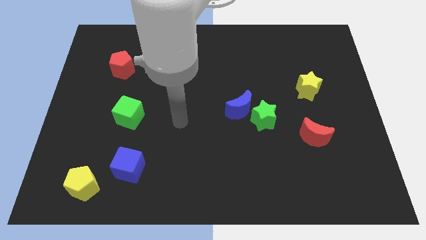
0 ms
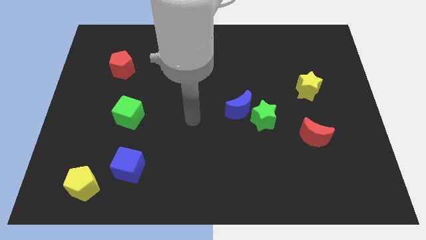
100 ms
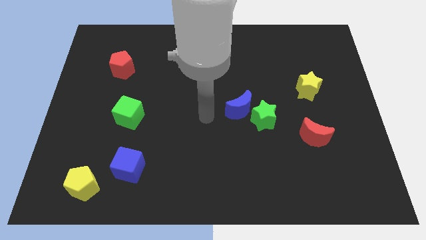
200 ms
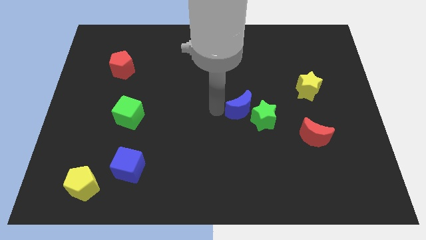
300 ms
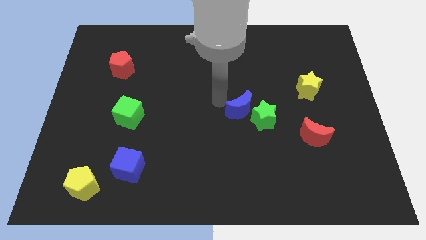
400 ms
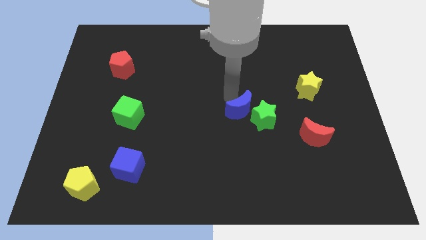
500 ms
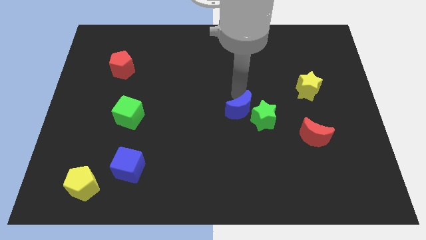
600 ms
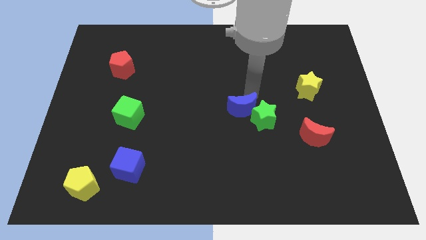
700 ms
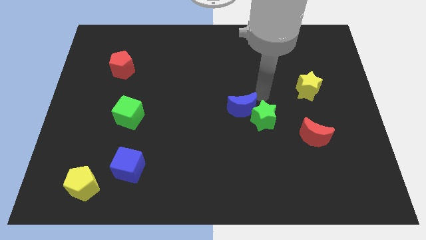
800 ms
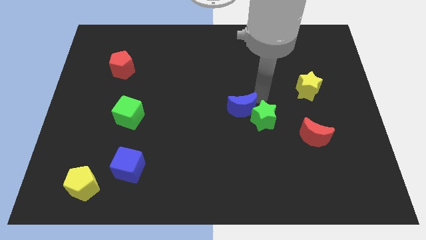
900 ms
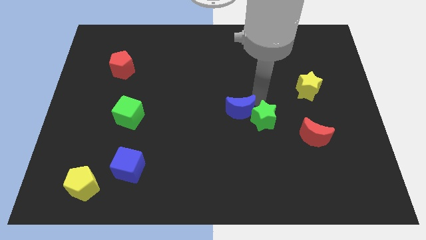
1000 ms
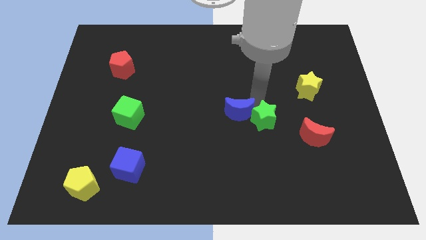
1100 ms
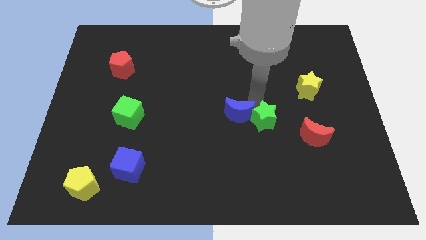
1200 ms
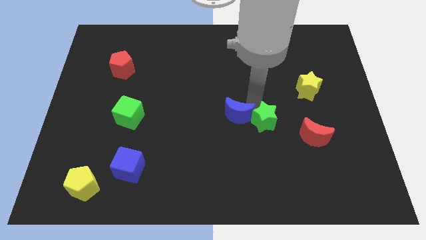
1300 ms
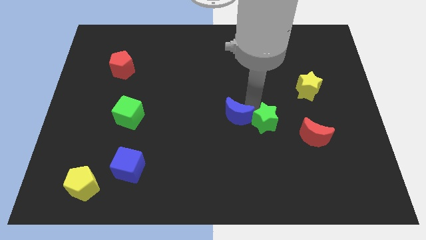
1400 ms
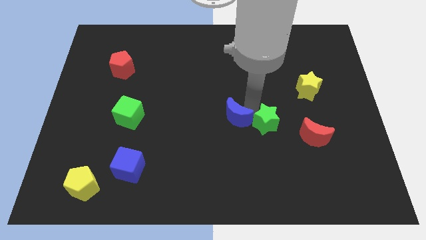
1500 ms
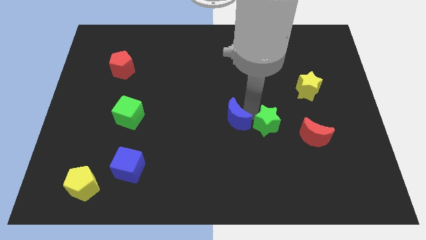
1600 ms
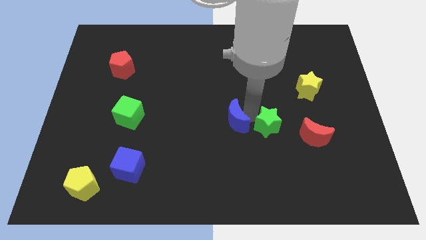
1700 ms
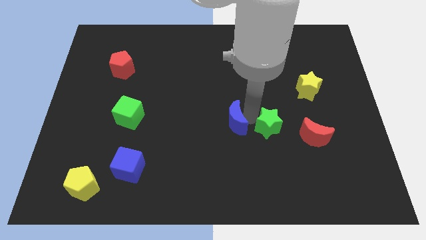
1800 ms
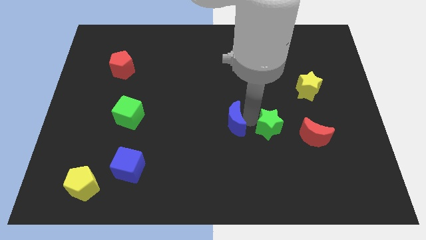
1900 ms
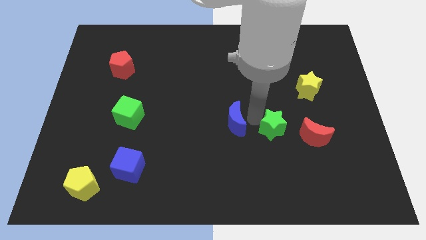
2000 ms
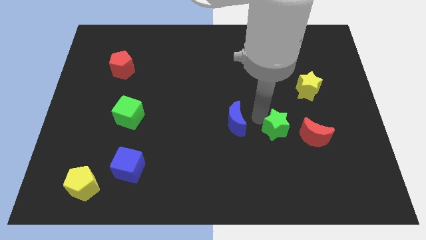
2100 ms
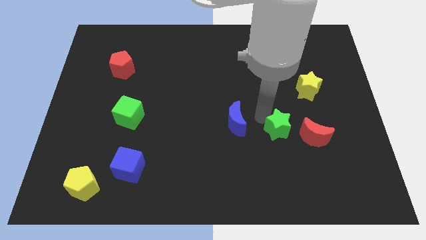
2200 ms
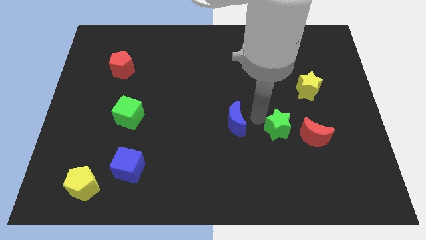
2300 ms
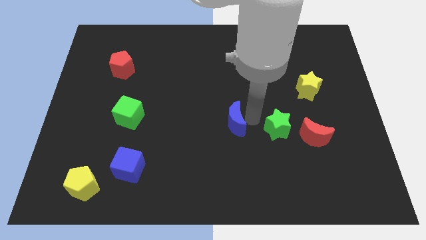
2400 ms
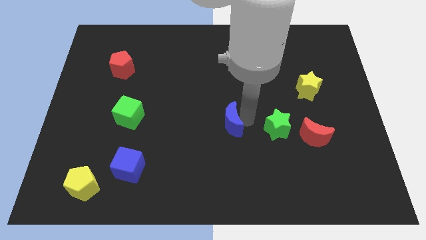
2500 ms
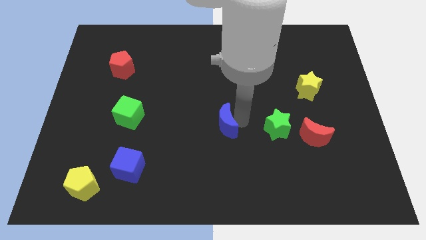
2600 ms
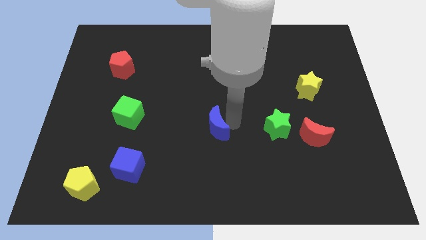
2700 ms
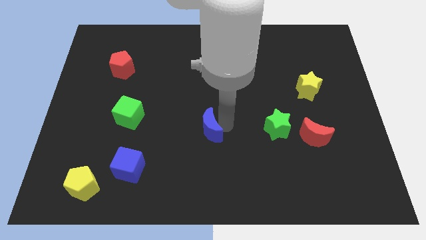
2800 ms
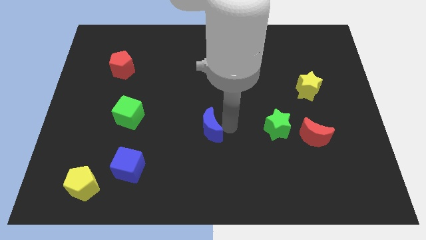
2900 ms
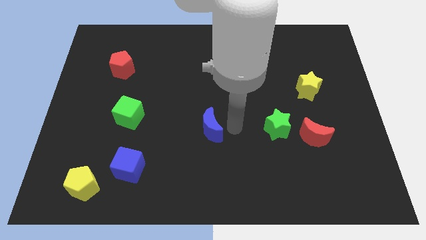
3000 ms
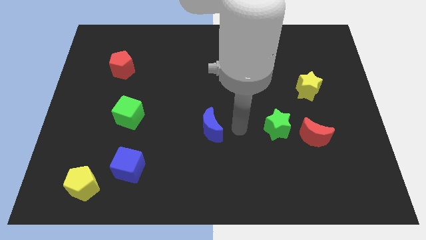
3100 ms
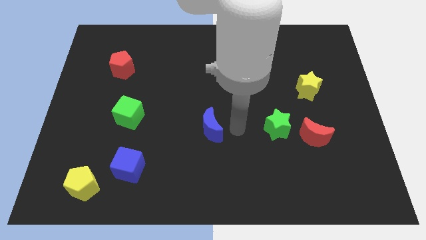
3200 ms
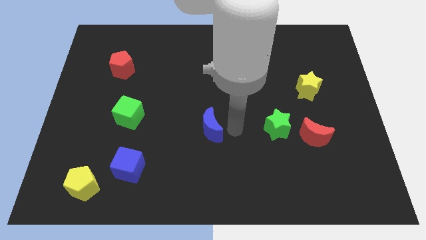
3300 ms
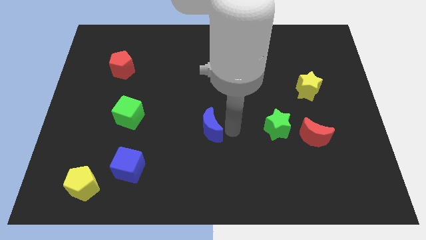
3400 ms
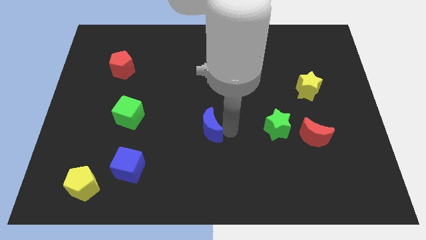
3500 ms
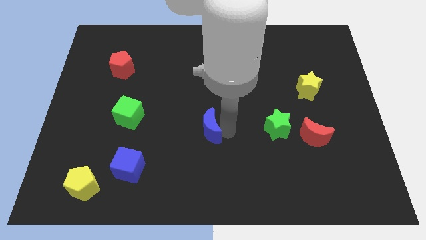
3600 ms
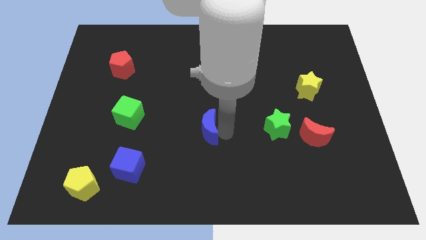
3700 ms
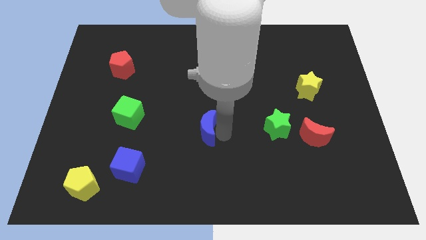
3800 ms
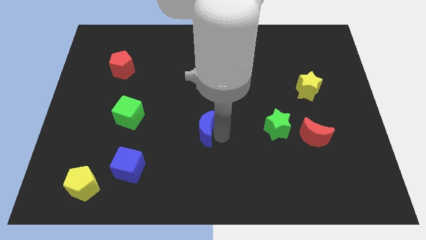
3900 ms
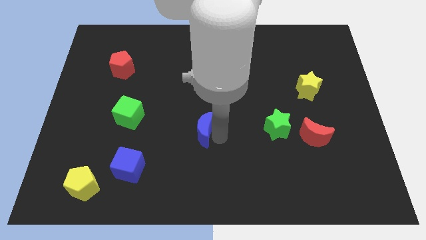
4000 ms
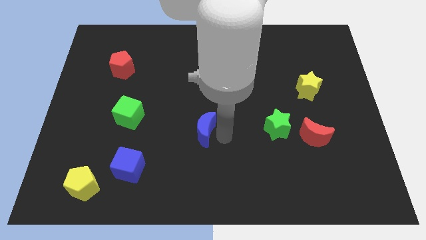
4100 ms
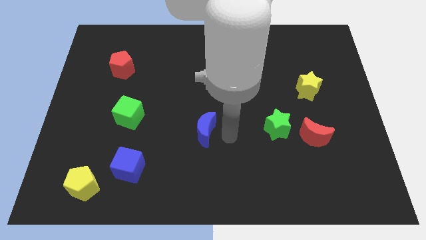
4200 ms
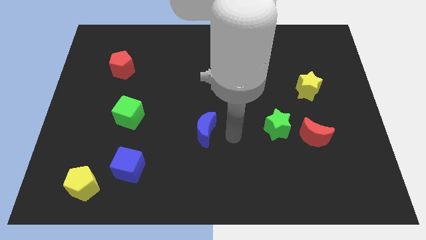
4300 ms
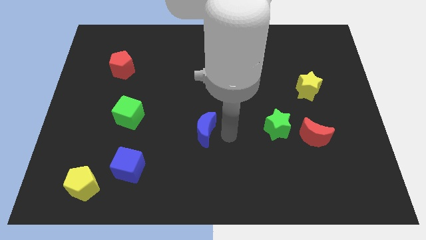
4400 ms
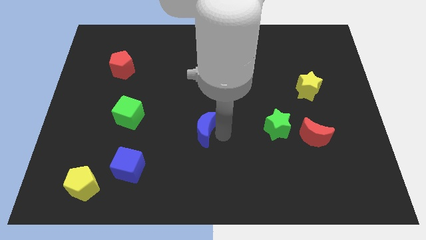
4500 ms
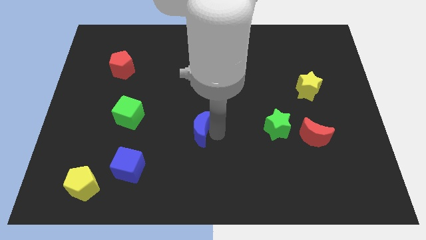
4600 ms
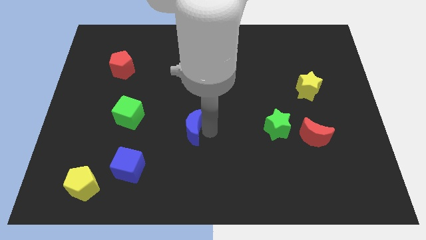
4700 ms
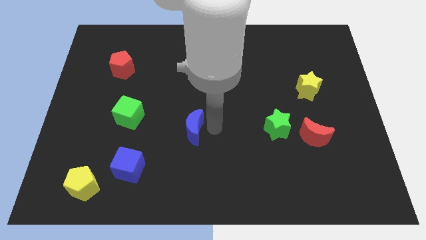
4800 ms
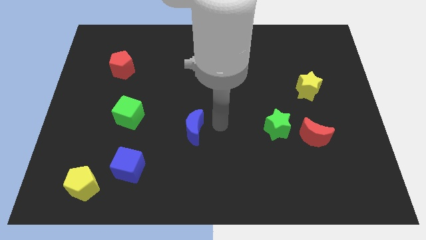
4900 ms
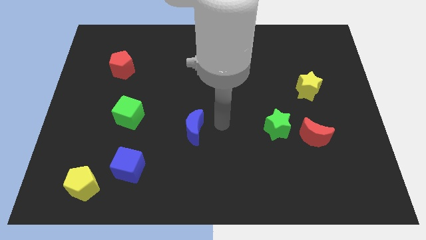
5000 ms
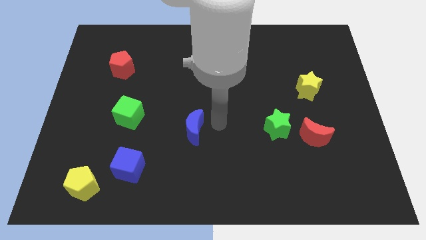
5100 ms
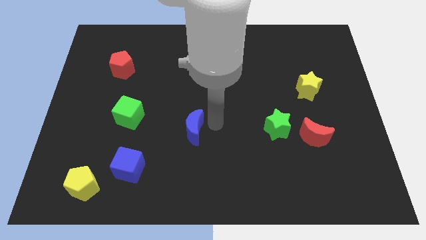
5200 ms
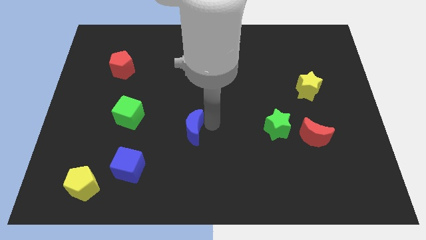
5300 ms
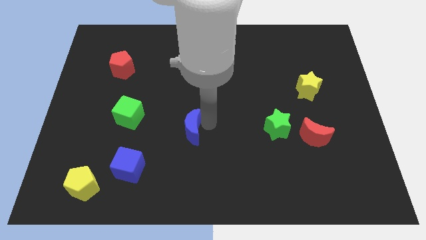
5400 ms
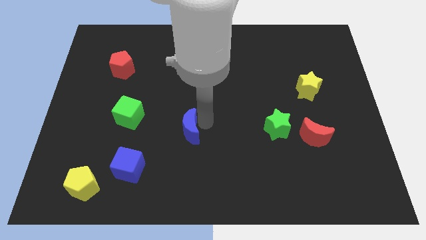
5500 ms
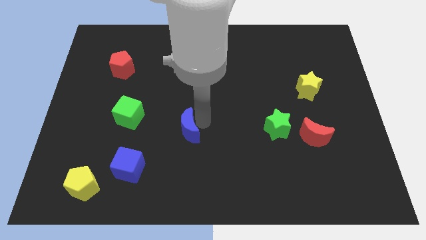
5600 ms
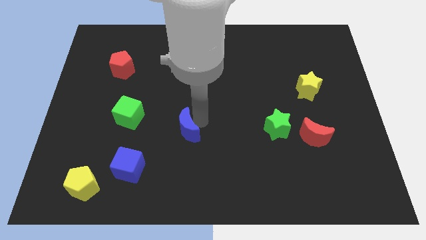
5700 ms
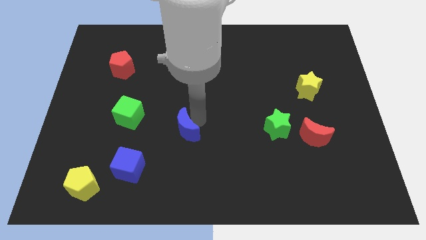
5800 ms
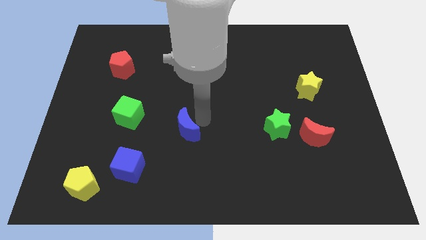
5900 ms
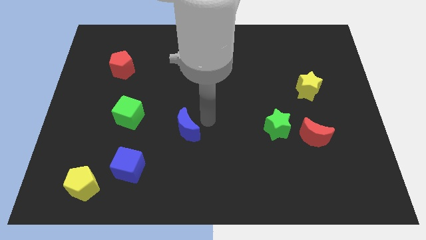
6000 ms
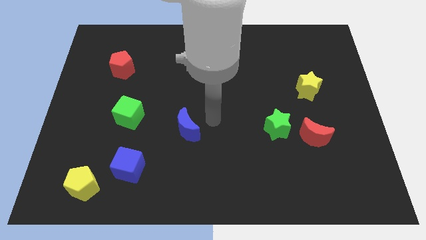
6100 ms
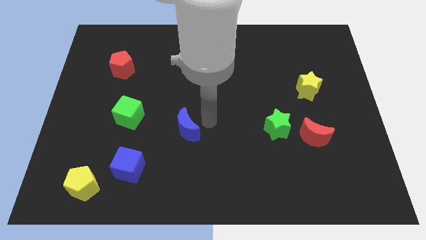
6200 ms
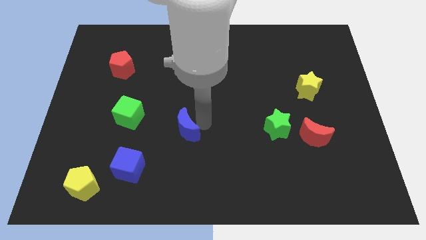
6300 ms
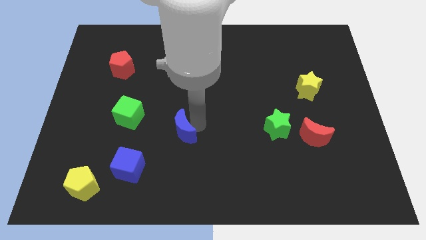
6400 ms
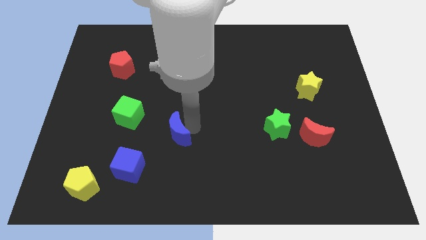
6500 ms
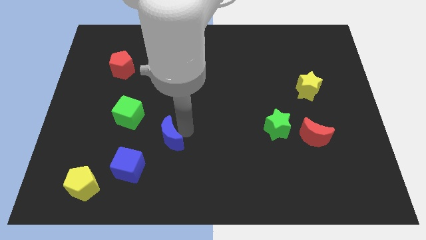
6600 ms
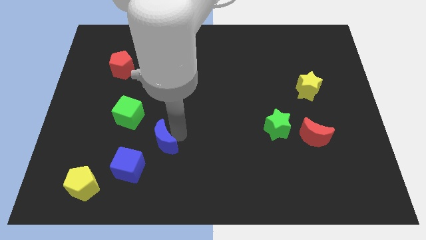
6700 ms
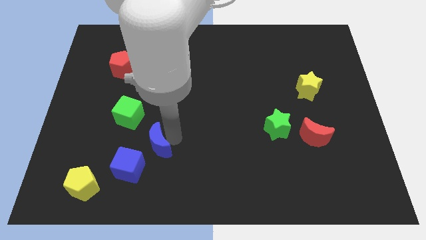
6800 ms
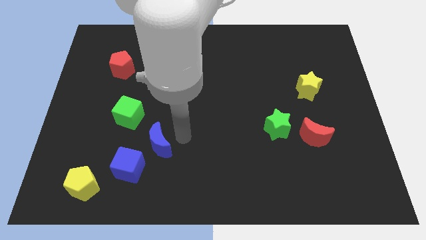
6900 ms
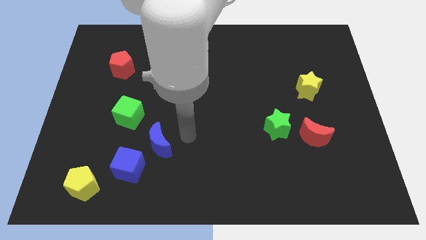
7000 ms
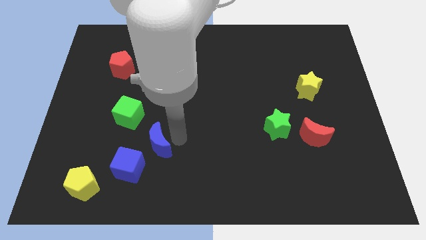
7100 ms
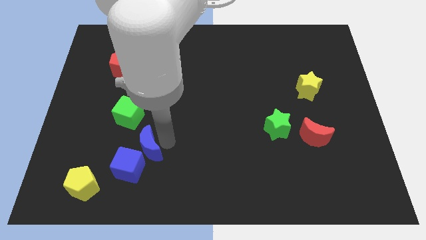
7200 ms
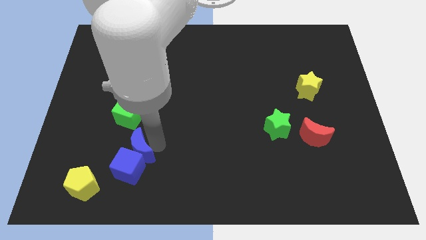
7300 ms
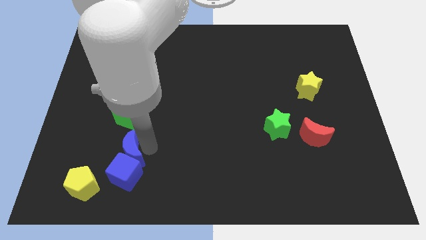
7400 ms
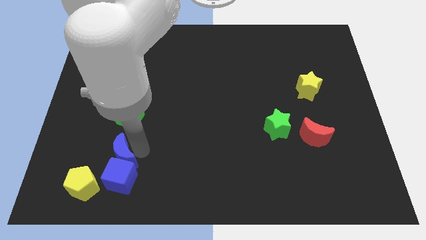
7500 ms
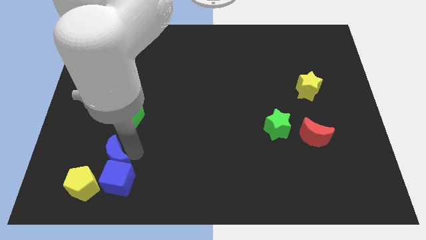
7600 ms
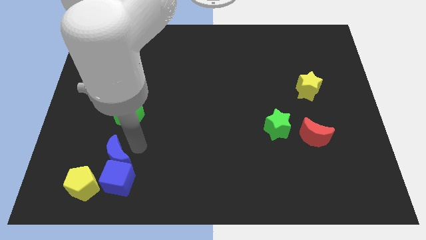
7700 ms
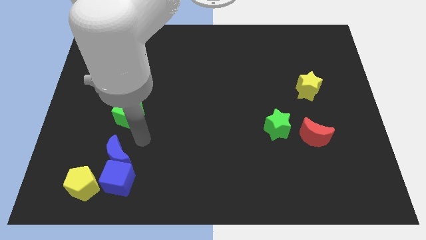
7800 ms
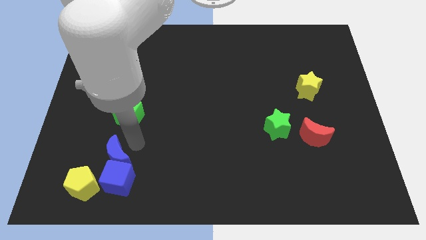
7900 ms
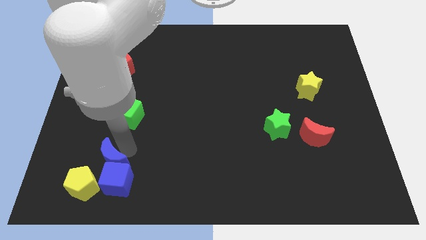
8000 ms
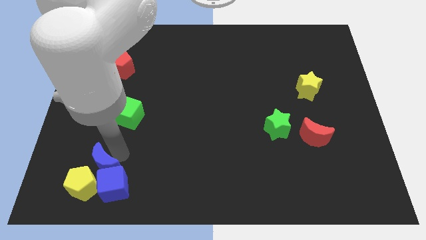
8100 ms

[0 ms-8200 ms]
slide the blue moon to the yellow pentagon
